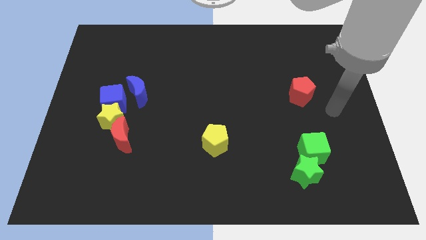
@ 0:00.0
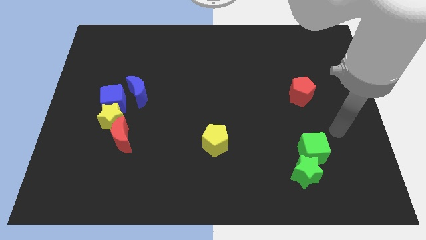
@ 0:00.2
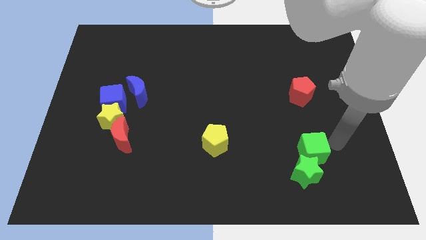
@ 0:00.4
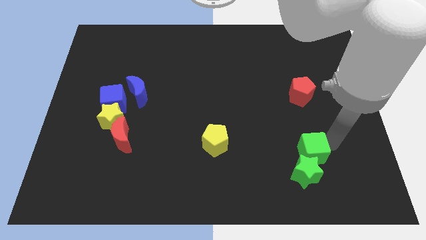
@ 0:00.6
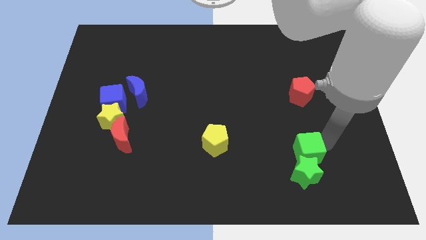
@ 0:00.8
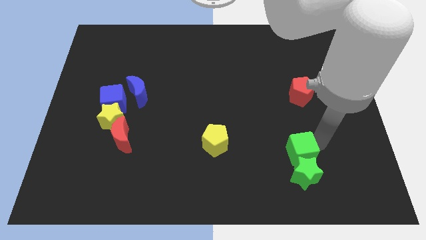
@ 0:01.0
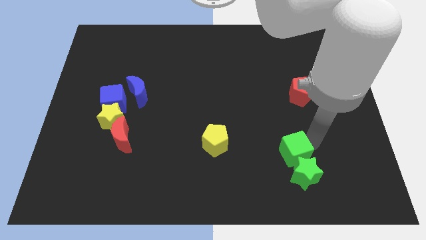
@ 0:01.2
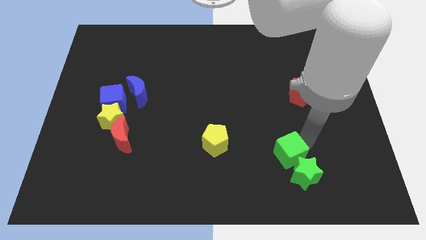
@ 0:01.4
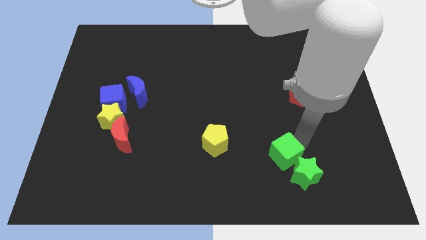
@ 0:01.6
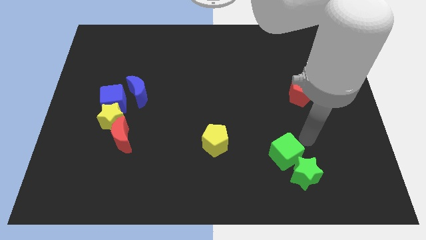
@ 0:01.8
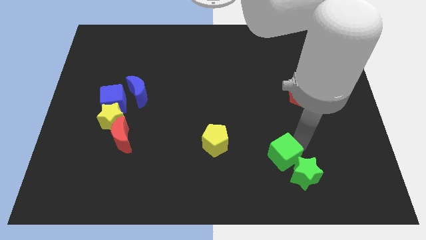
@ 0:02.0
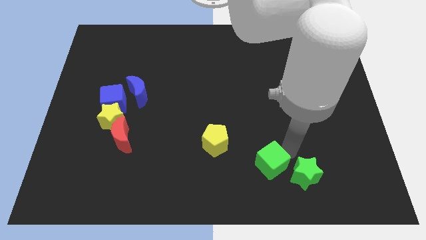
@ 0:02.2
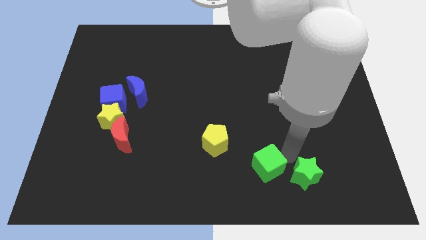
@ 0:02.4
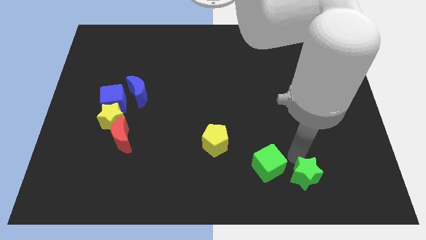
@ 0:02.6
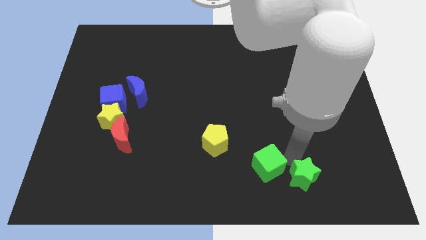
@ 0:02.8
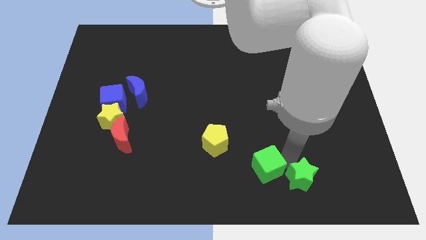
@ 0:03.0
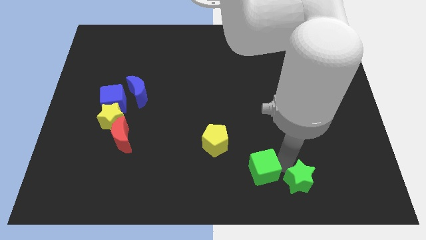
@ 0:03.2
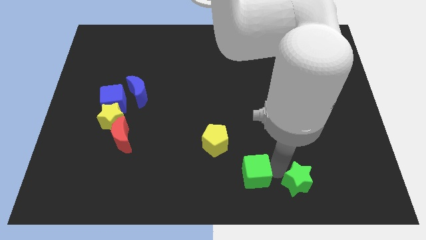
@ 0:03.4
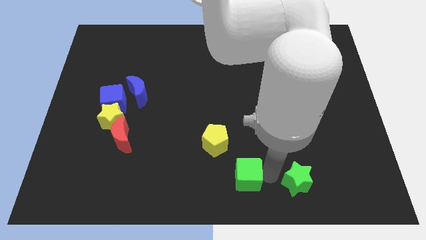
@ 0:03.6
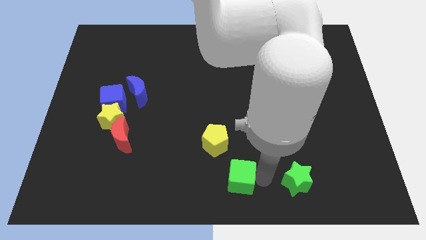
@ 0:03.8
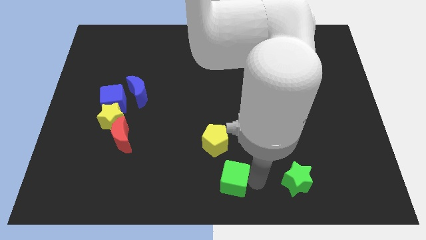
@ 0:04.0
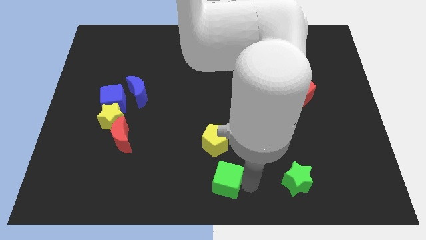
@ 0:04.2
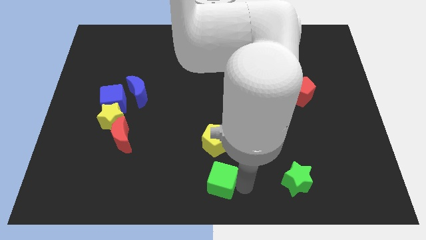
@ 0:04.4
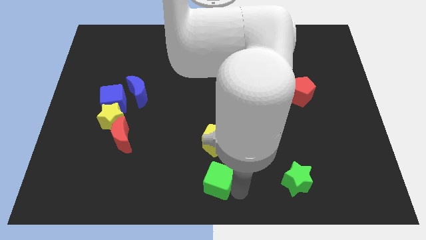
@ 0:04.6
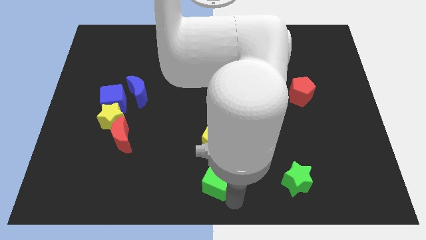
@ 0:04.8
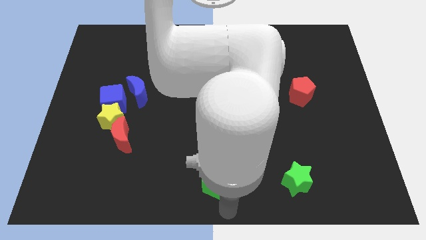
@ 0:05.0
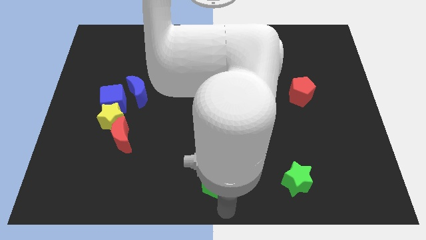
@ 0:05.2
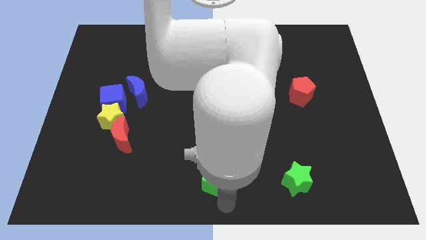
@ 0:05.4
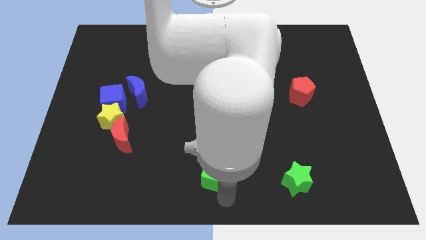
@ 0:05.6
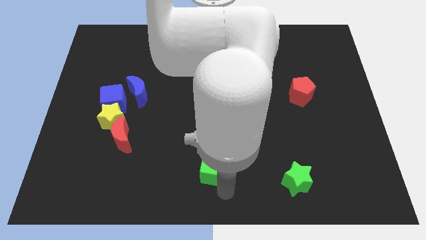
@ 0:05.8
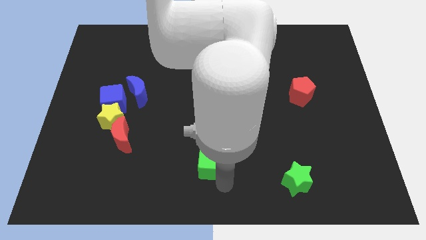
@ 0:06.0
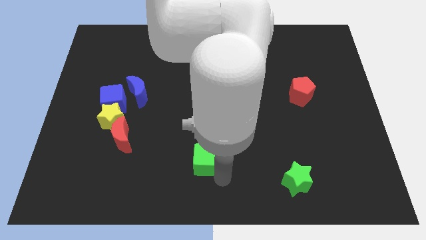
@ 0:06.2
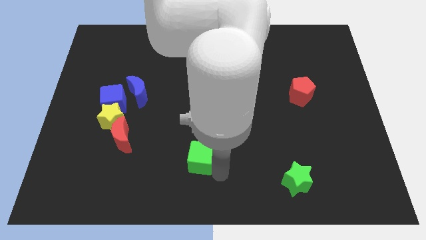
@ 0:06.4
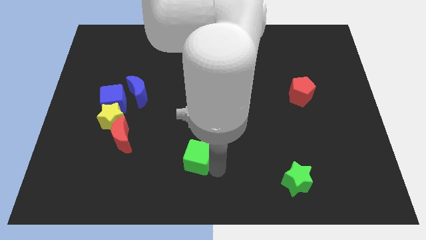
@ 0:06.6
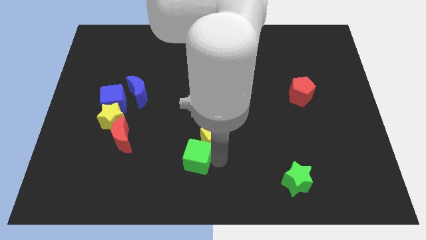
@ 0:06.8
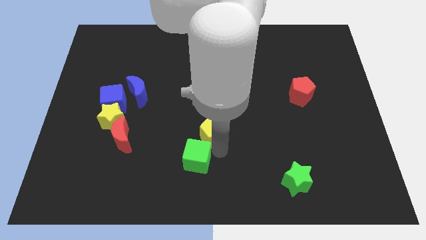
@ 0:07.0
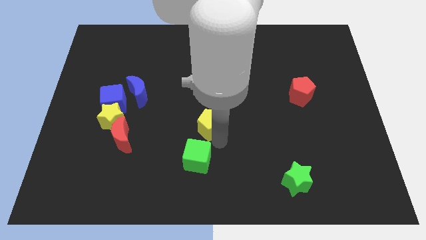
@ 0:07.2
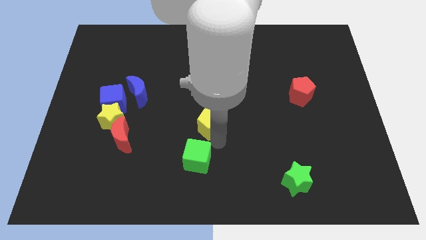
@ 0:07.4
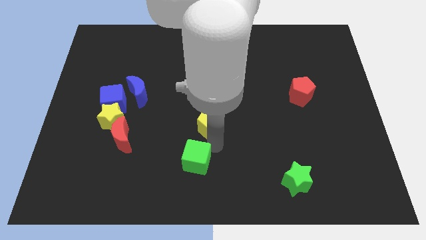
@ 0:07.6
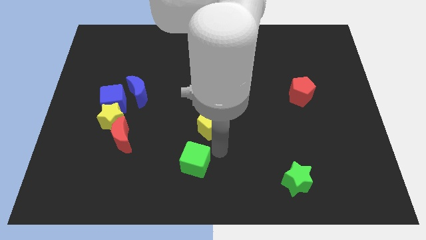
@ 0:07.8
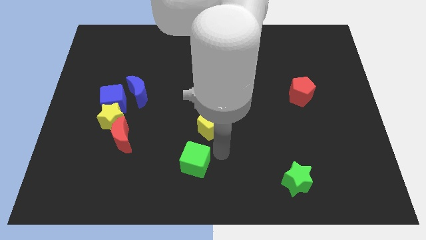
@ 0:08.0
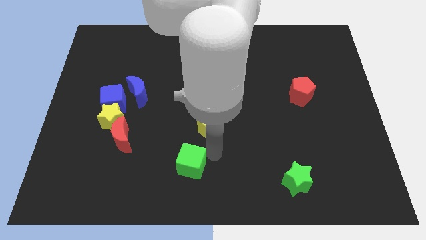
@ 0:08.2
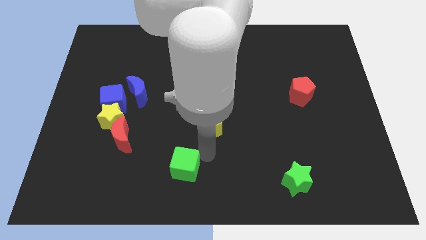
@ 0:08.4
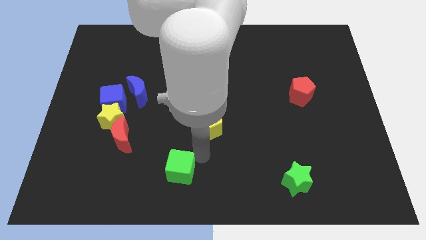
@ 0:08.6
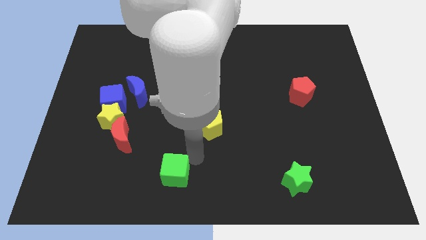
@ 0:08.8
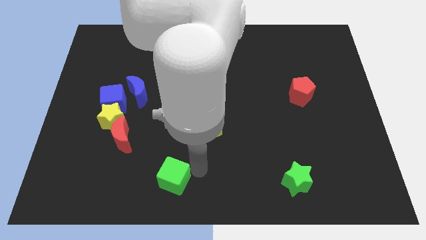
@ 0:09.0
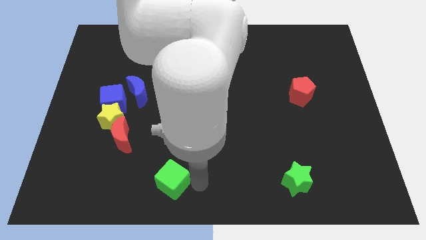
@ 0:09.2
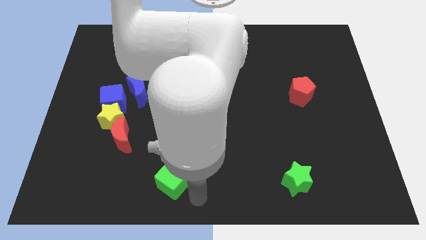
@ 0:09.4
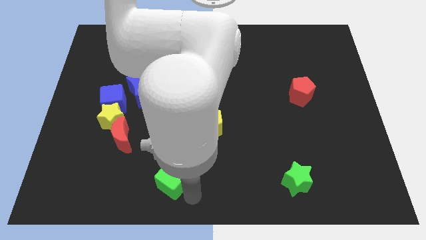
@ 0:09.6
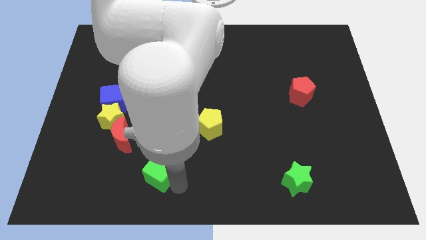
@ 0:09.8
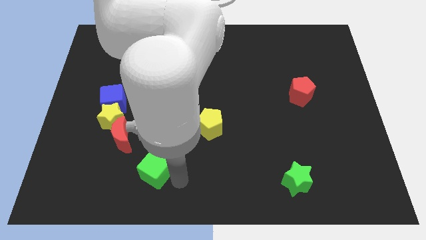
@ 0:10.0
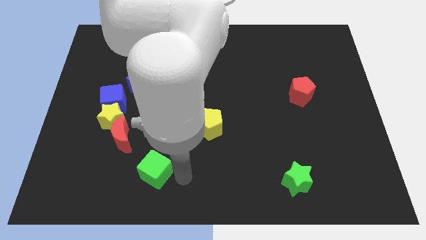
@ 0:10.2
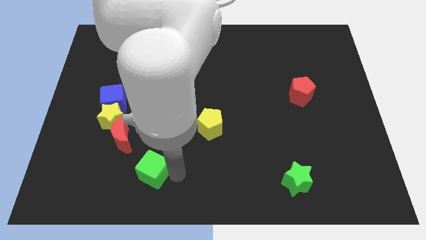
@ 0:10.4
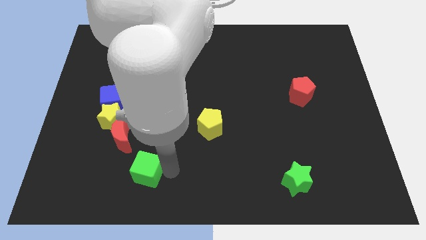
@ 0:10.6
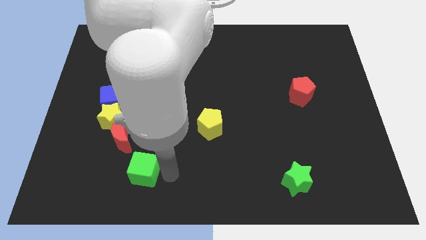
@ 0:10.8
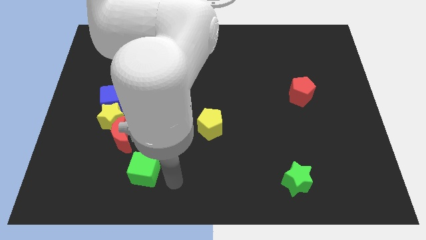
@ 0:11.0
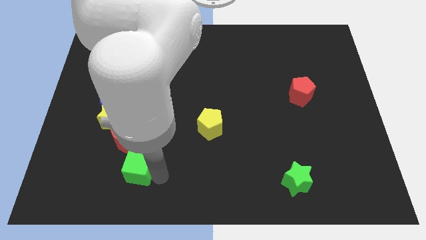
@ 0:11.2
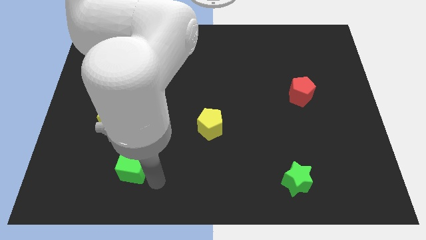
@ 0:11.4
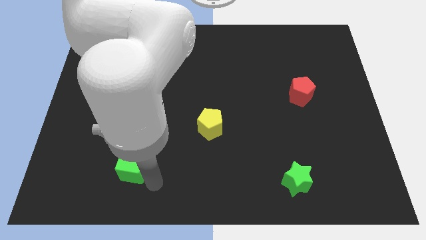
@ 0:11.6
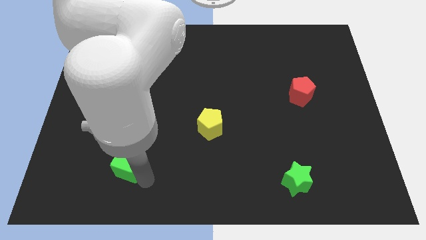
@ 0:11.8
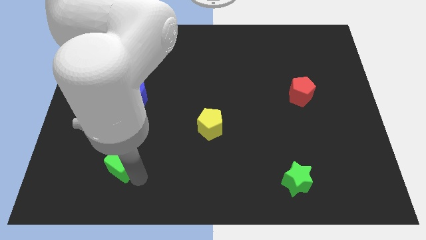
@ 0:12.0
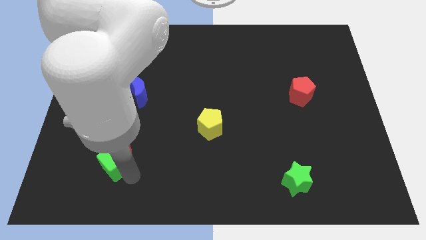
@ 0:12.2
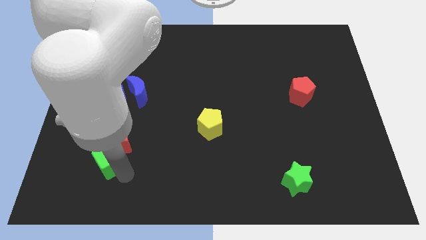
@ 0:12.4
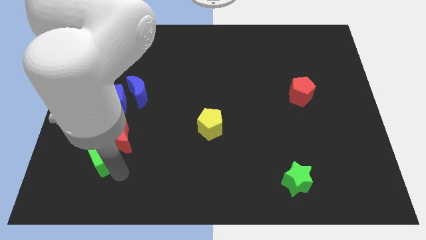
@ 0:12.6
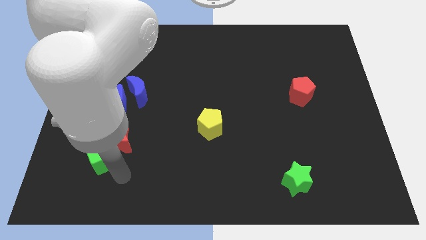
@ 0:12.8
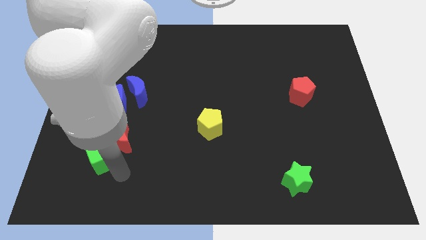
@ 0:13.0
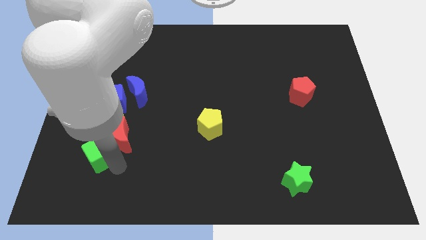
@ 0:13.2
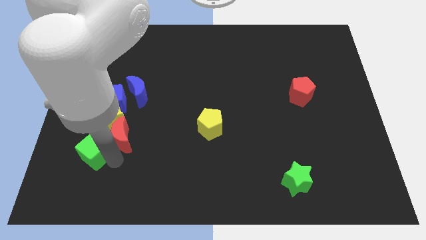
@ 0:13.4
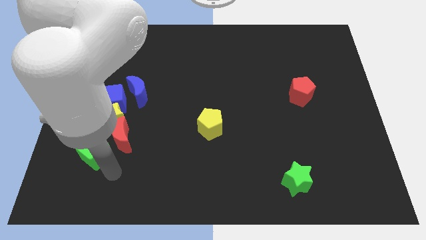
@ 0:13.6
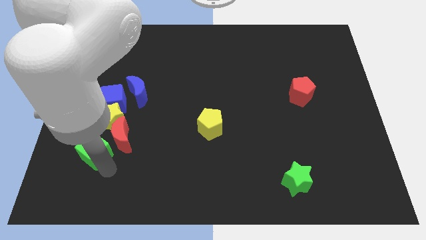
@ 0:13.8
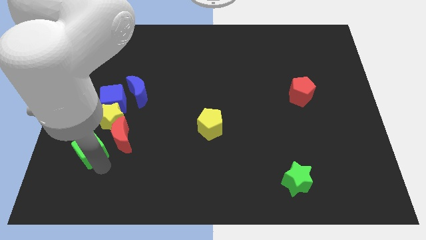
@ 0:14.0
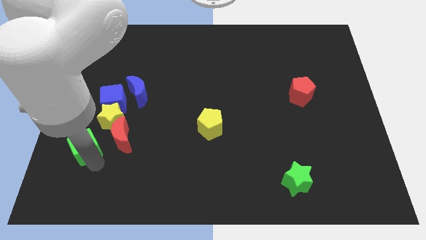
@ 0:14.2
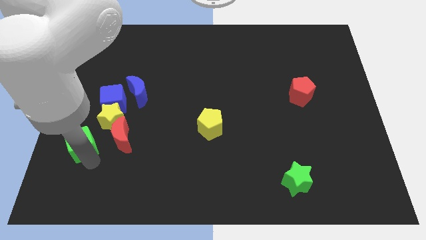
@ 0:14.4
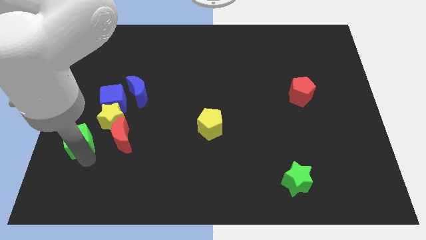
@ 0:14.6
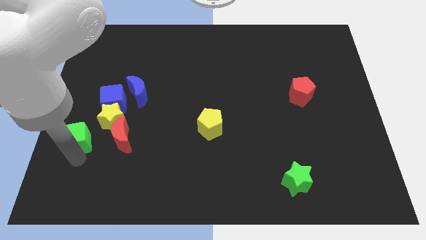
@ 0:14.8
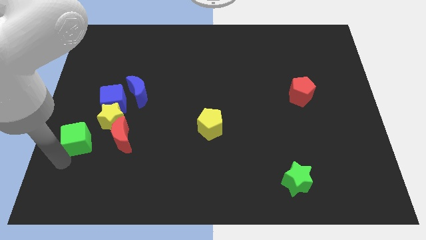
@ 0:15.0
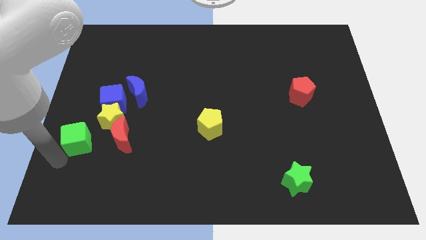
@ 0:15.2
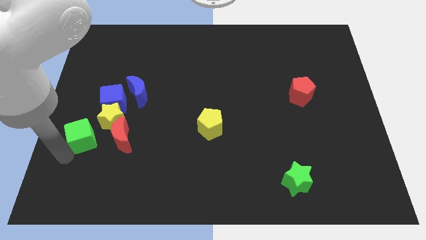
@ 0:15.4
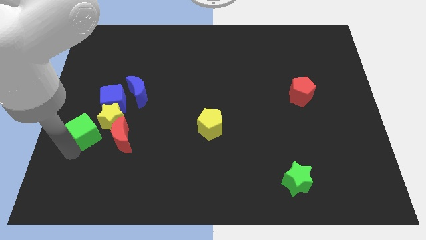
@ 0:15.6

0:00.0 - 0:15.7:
push the green cube diagonally up and to the left of the red moon

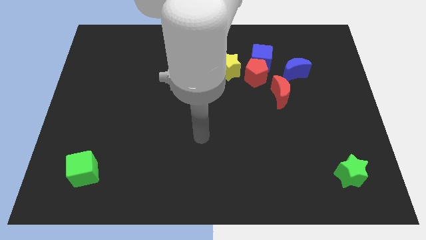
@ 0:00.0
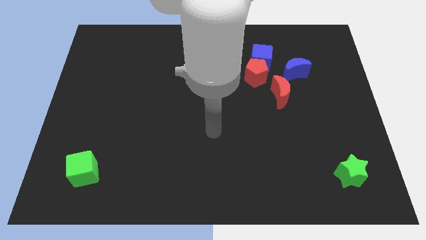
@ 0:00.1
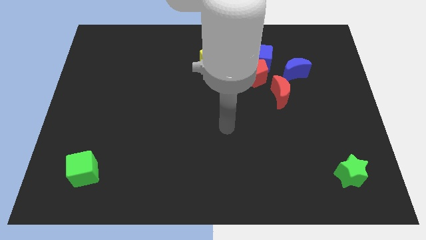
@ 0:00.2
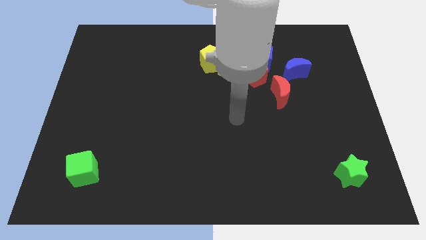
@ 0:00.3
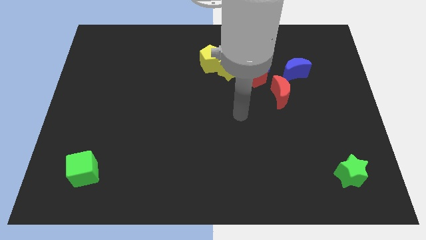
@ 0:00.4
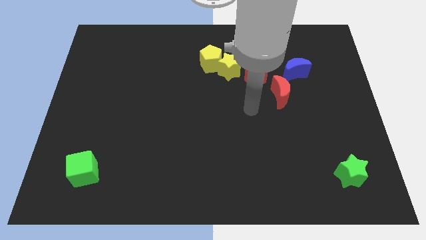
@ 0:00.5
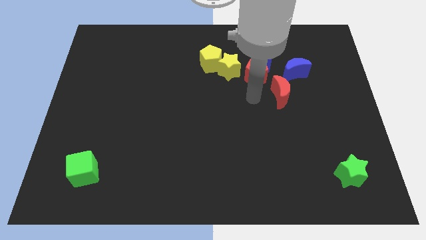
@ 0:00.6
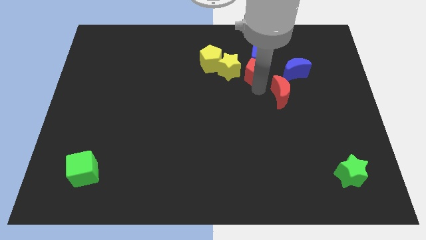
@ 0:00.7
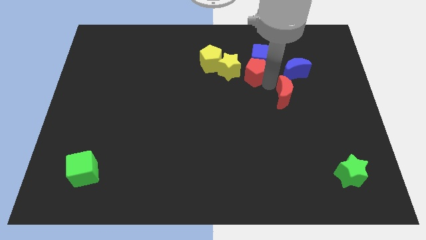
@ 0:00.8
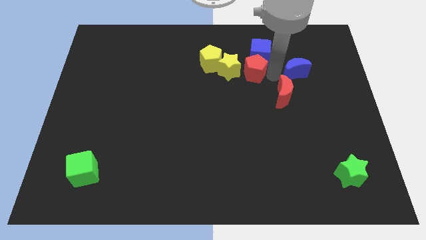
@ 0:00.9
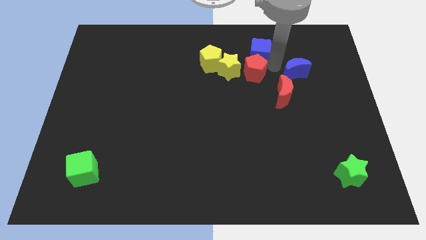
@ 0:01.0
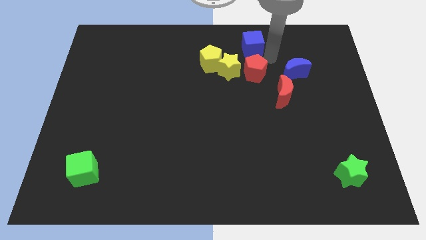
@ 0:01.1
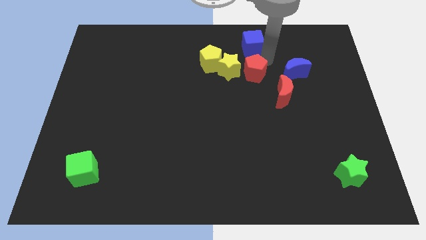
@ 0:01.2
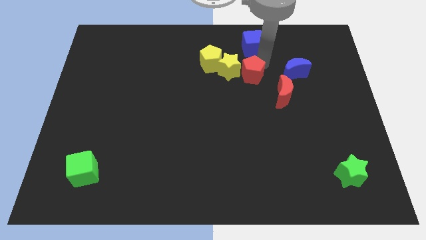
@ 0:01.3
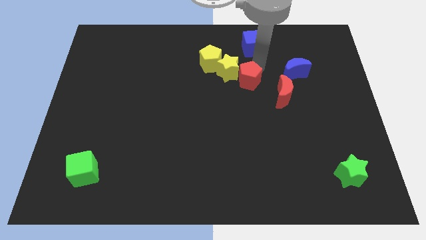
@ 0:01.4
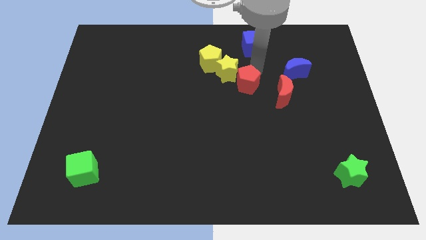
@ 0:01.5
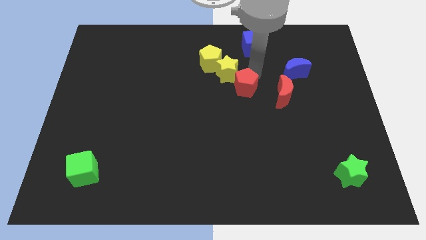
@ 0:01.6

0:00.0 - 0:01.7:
put the red pentagon to the bottom side of the yellow star
